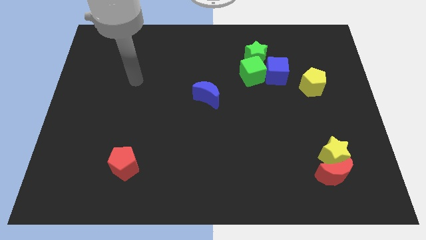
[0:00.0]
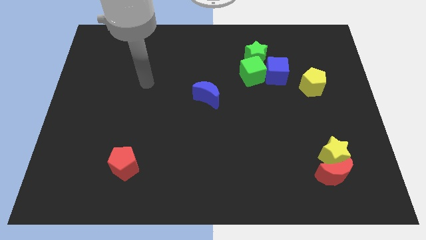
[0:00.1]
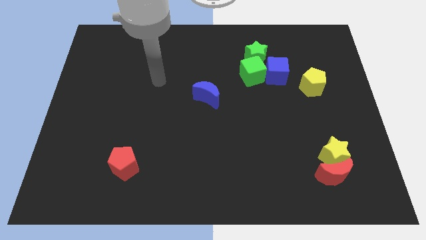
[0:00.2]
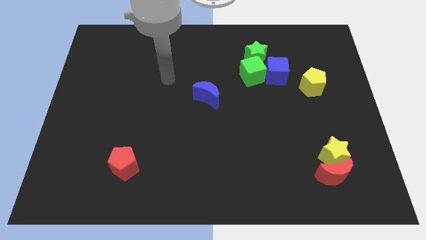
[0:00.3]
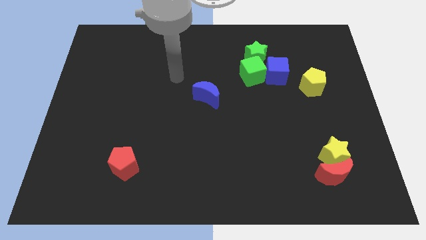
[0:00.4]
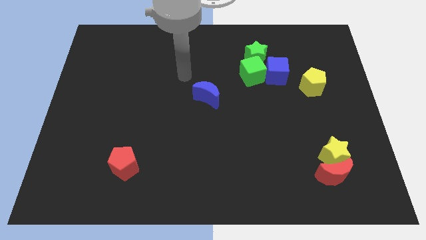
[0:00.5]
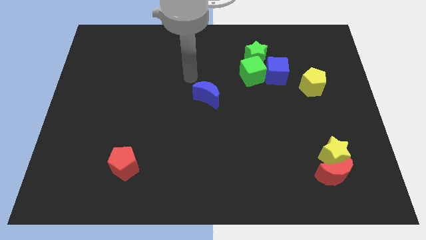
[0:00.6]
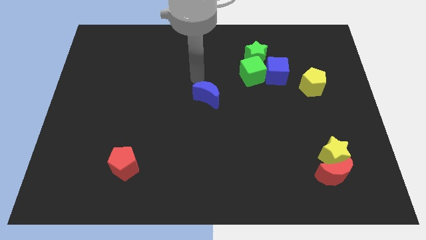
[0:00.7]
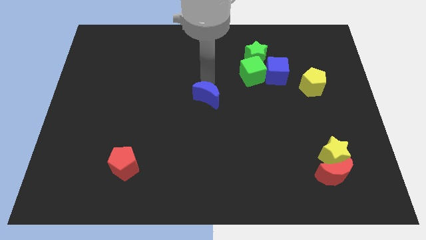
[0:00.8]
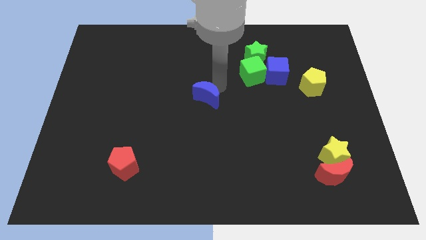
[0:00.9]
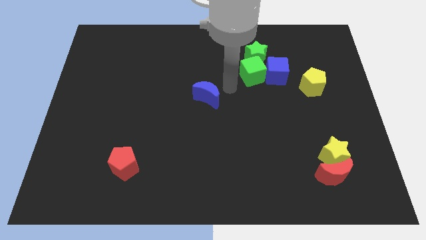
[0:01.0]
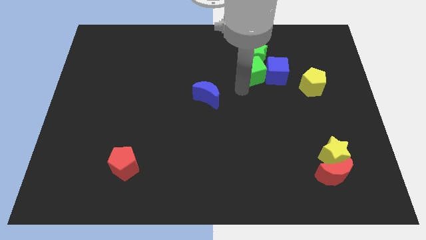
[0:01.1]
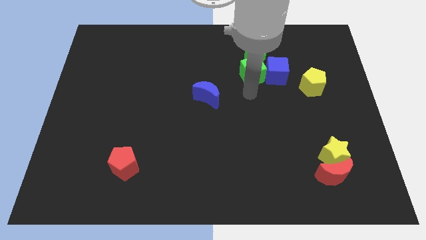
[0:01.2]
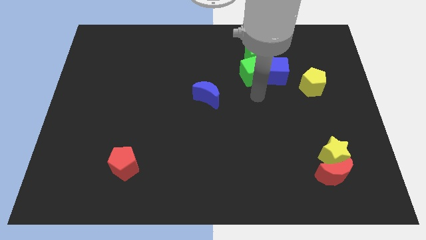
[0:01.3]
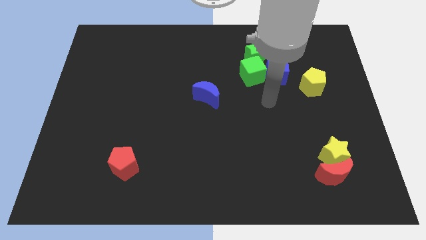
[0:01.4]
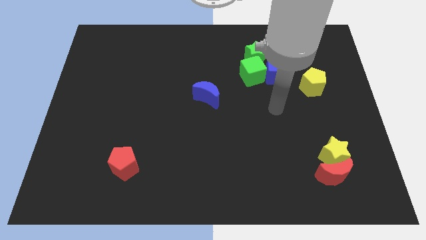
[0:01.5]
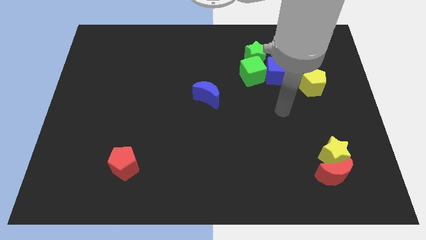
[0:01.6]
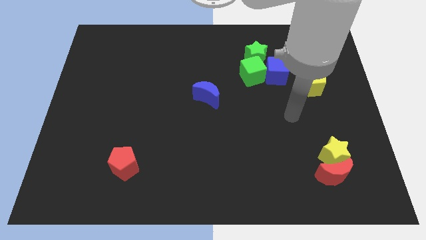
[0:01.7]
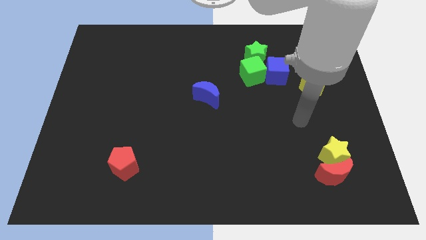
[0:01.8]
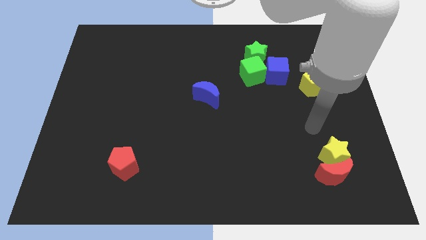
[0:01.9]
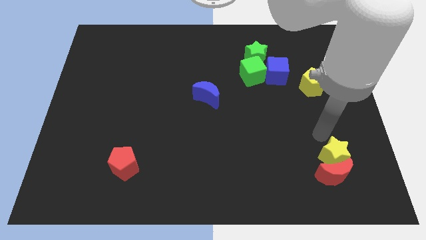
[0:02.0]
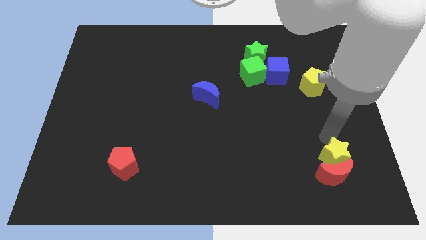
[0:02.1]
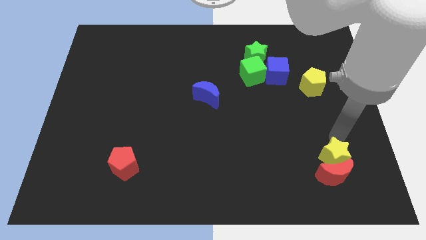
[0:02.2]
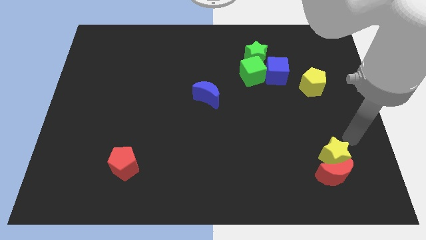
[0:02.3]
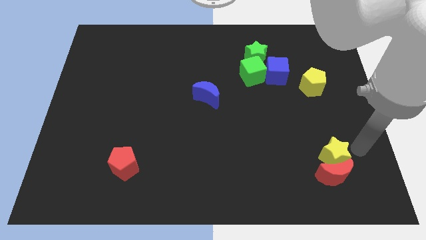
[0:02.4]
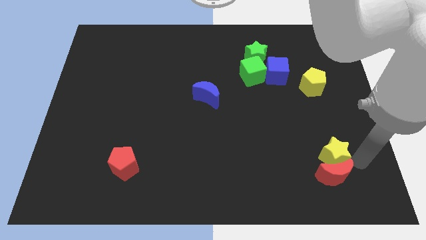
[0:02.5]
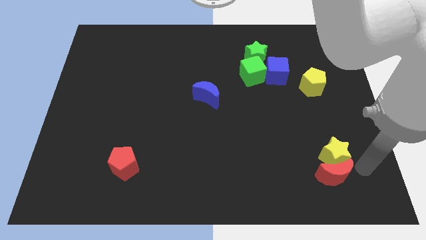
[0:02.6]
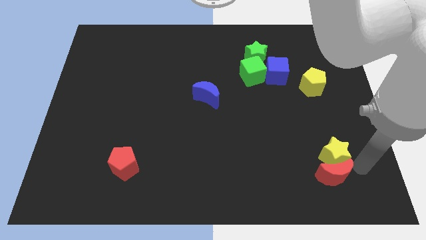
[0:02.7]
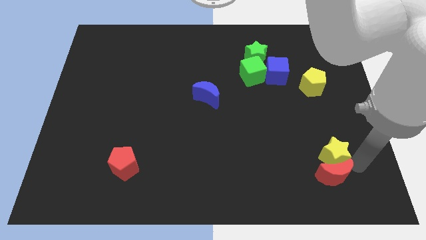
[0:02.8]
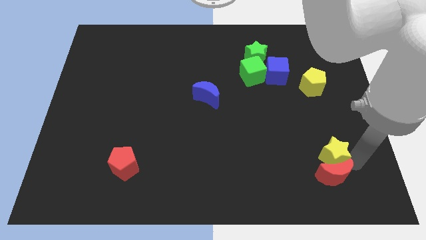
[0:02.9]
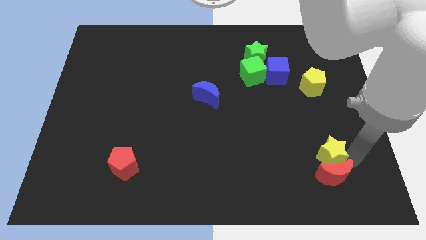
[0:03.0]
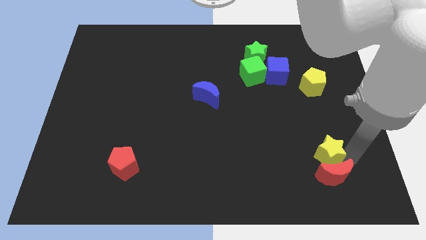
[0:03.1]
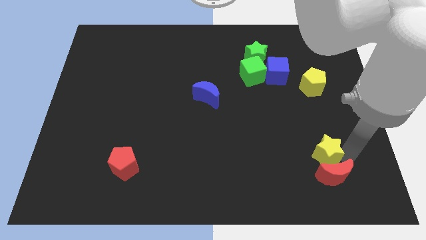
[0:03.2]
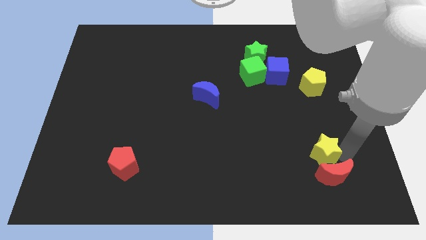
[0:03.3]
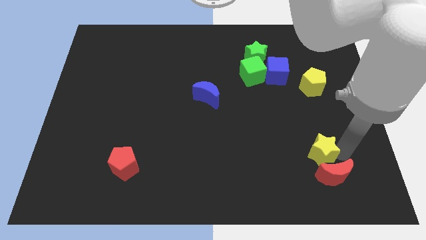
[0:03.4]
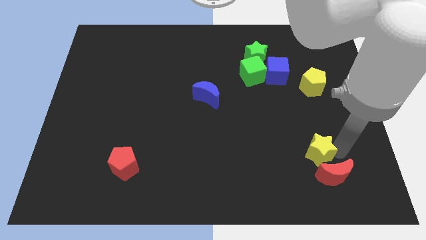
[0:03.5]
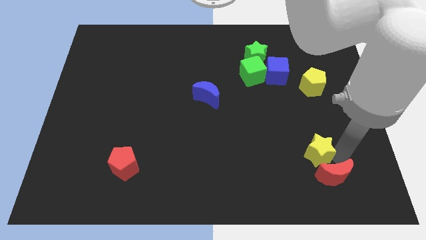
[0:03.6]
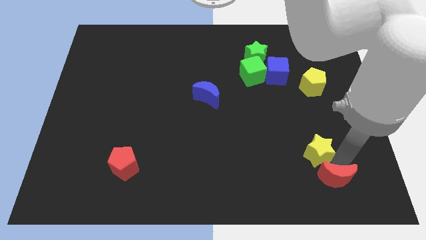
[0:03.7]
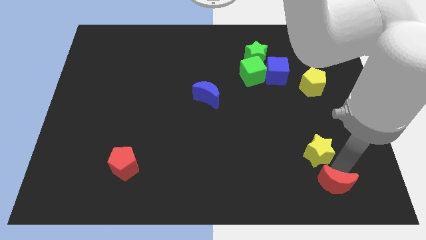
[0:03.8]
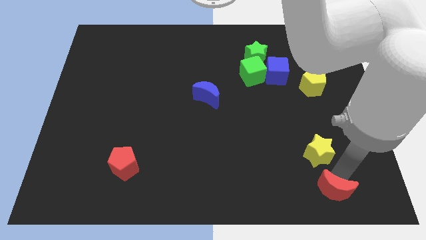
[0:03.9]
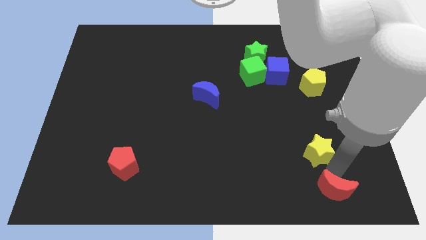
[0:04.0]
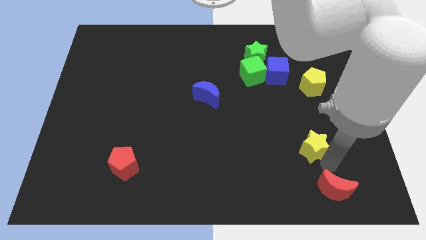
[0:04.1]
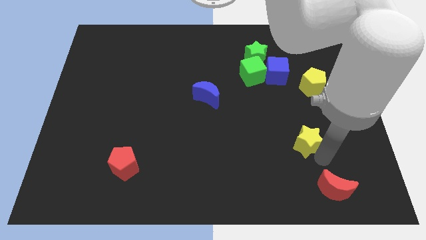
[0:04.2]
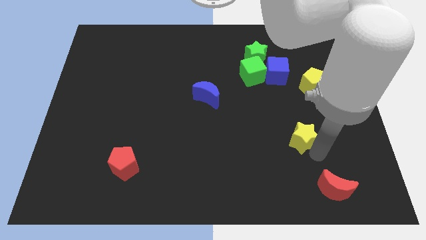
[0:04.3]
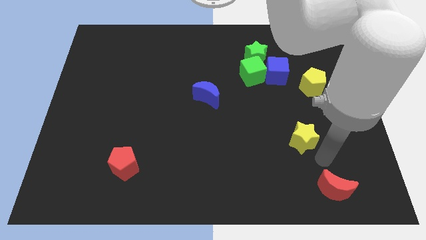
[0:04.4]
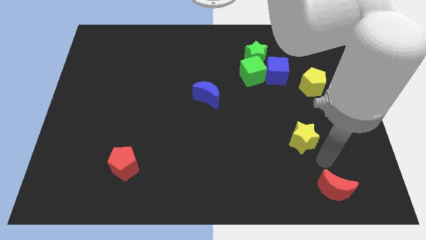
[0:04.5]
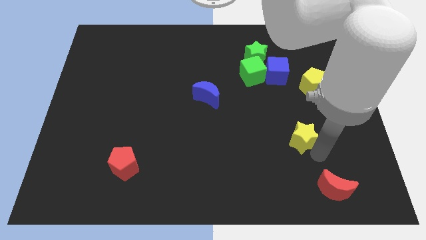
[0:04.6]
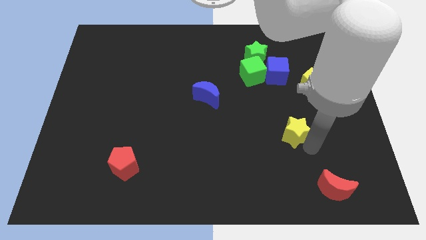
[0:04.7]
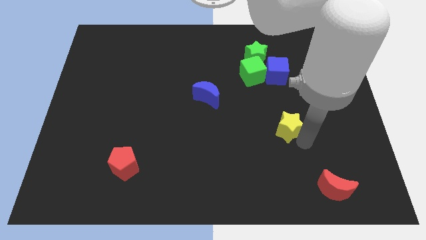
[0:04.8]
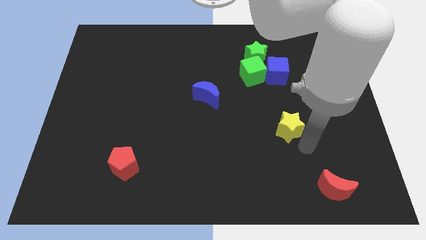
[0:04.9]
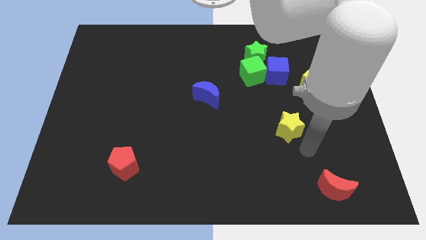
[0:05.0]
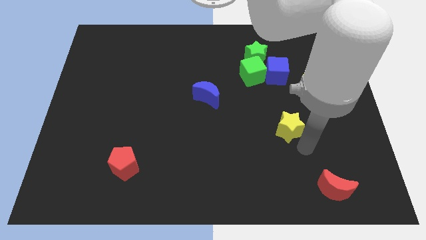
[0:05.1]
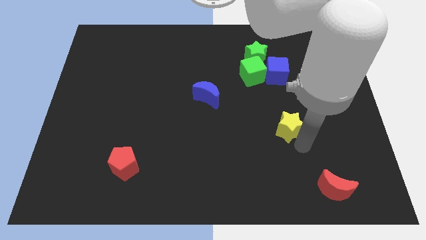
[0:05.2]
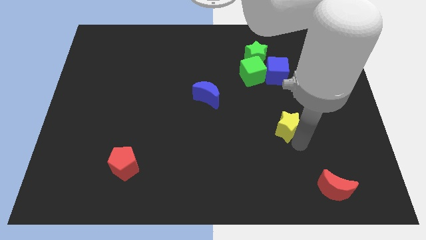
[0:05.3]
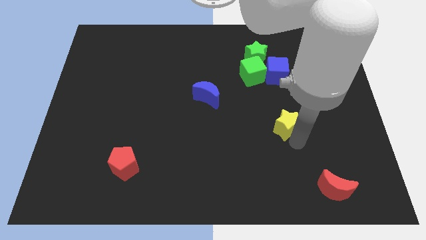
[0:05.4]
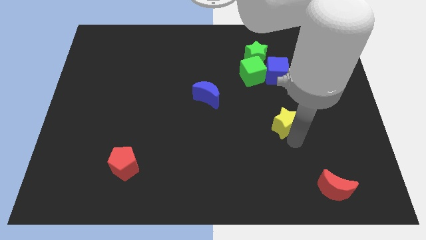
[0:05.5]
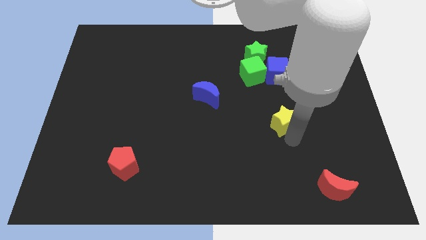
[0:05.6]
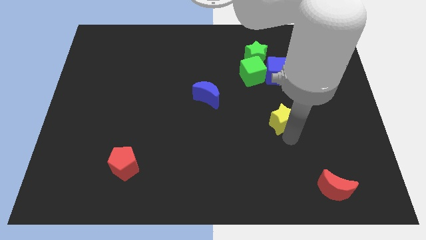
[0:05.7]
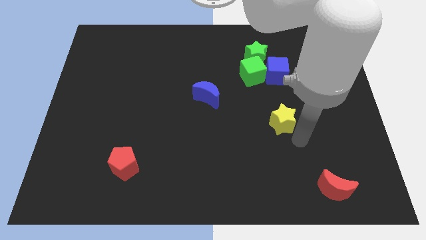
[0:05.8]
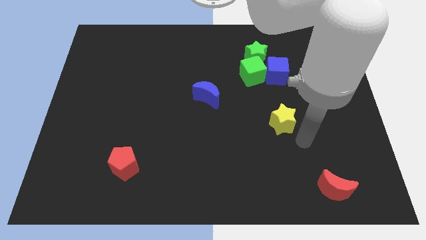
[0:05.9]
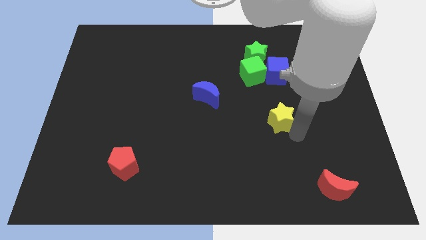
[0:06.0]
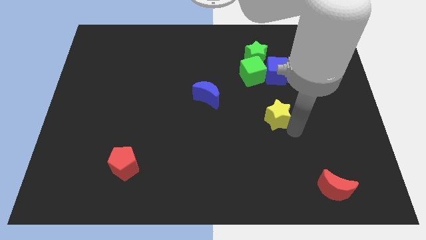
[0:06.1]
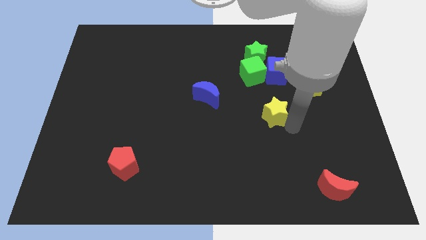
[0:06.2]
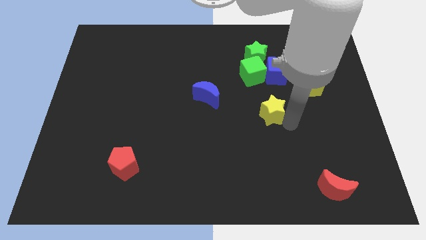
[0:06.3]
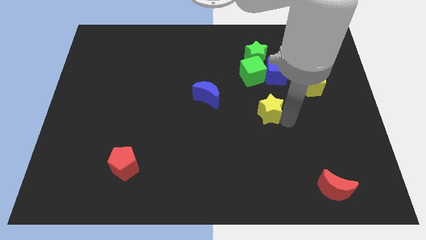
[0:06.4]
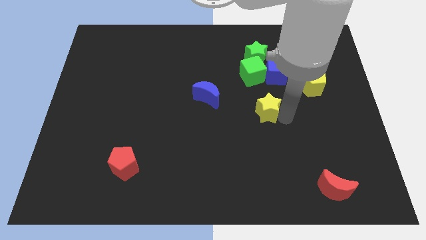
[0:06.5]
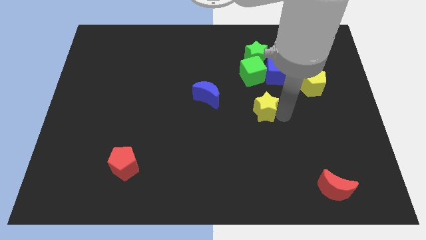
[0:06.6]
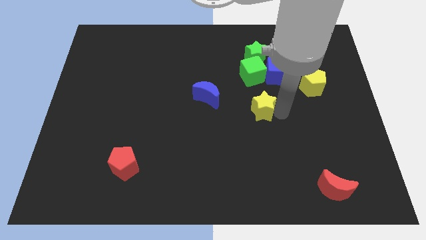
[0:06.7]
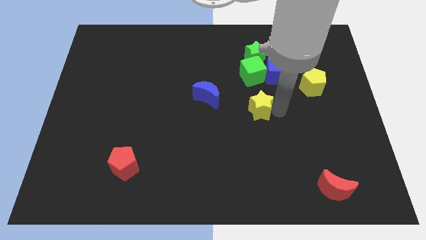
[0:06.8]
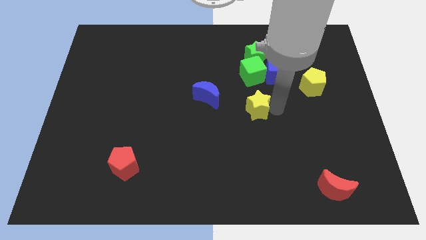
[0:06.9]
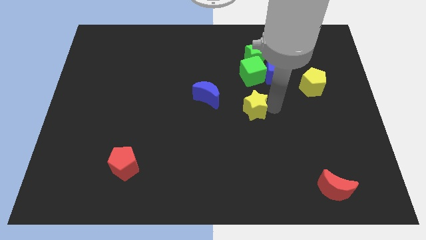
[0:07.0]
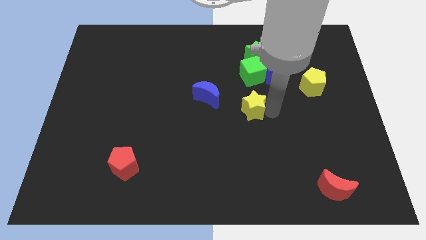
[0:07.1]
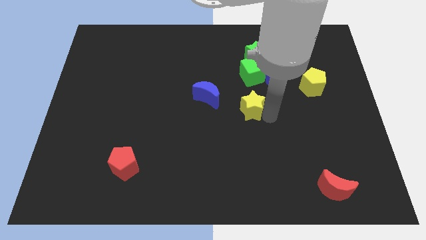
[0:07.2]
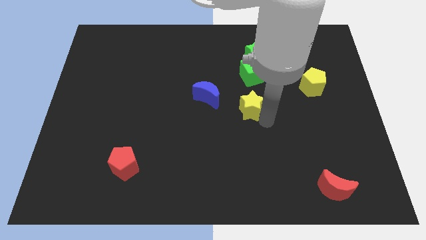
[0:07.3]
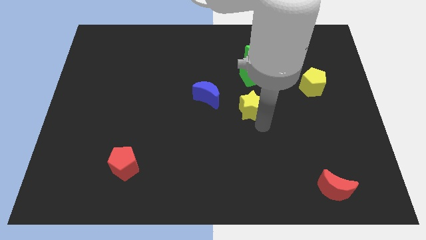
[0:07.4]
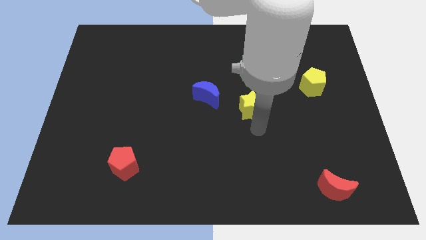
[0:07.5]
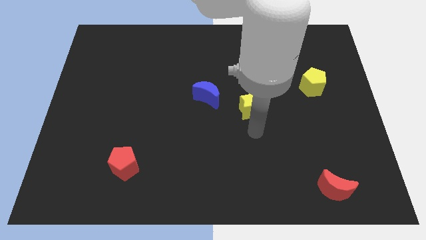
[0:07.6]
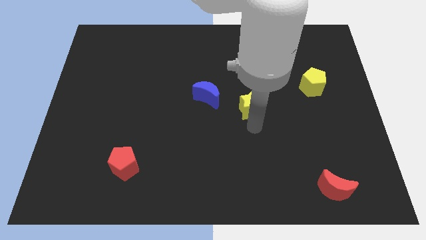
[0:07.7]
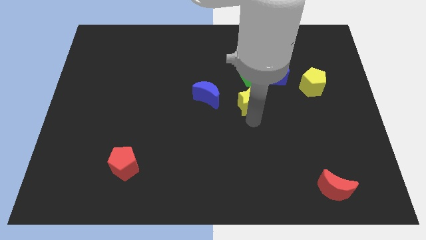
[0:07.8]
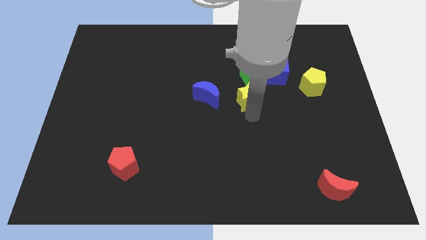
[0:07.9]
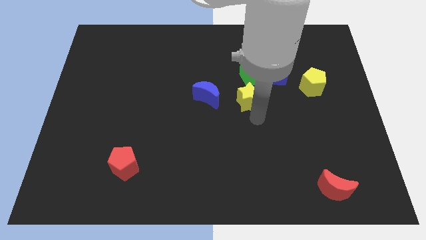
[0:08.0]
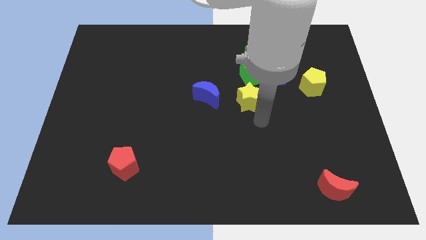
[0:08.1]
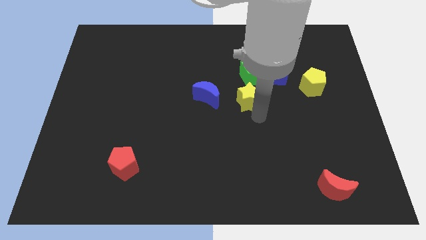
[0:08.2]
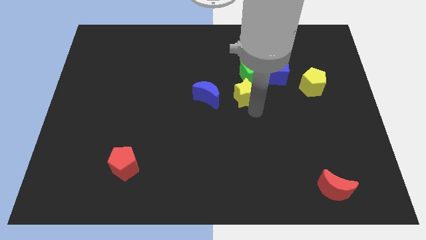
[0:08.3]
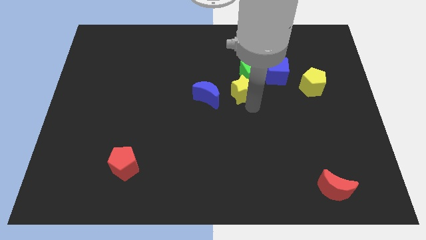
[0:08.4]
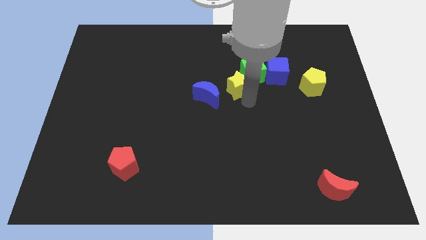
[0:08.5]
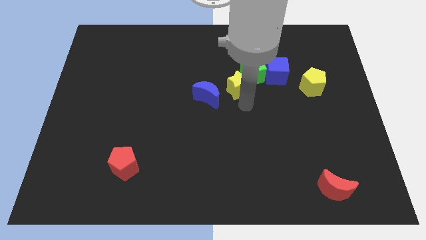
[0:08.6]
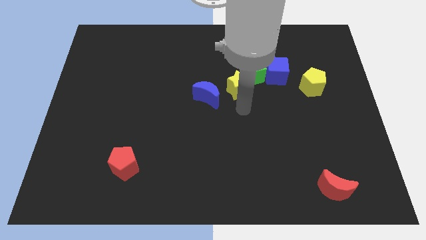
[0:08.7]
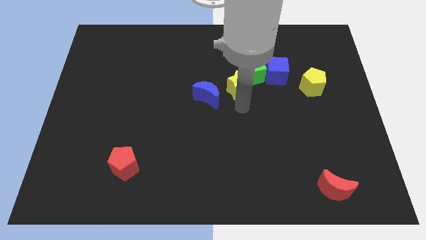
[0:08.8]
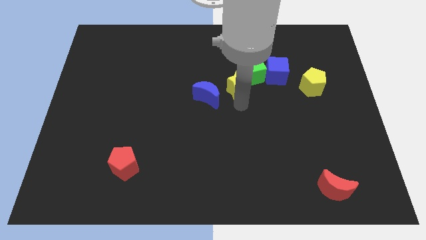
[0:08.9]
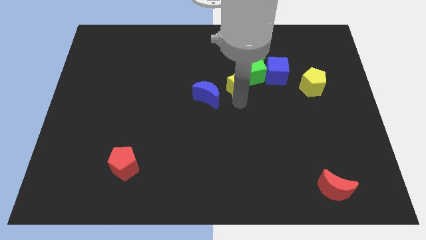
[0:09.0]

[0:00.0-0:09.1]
move the yellow star to the bottom left side of the green star
